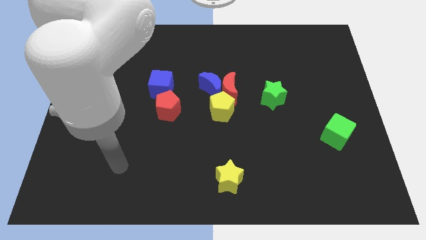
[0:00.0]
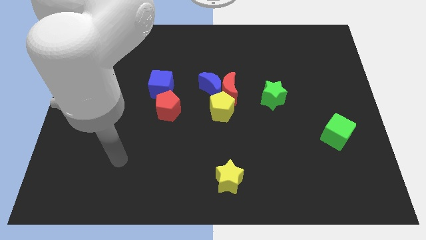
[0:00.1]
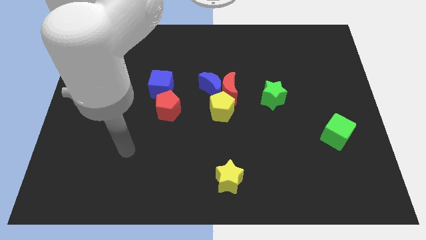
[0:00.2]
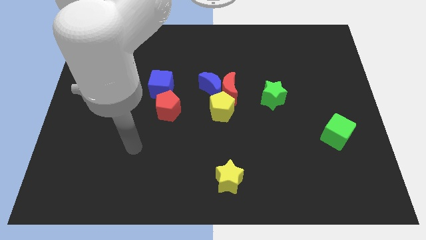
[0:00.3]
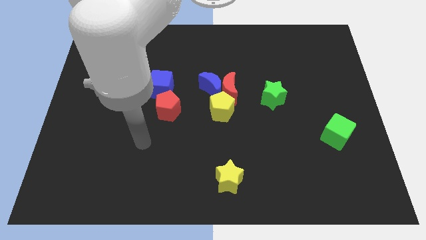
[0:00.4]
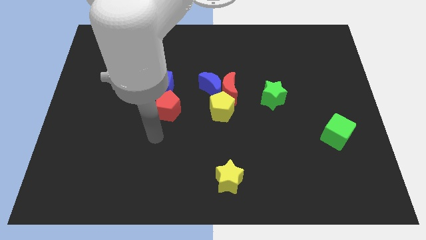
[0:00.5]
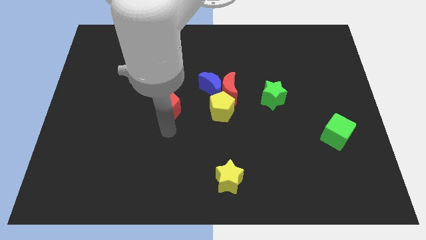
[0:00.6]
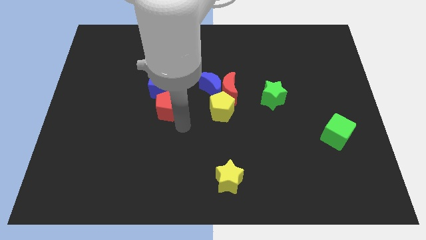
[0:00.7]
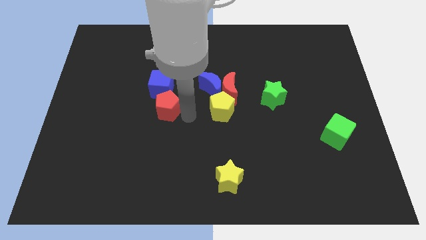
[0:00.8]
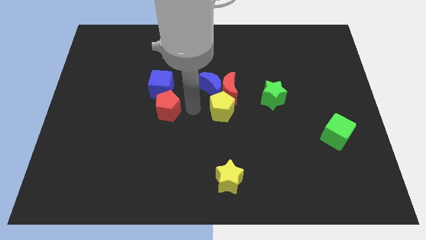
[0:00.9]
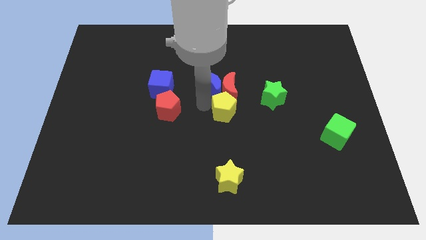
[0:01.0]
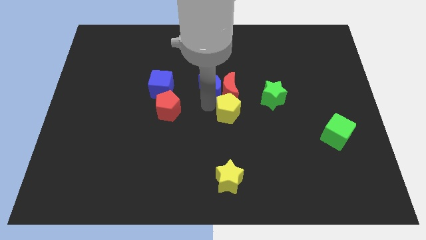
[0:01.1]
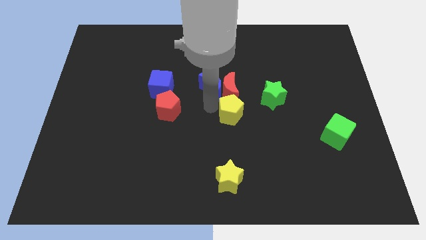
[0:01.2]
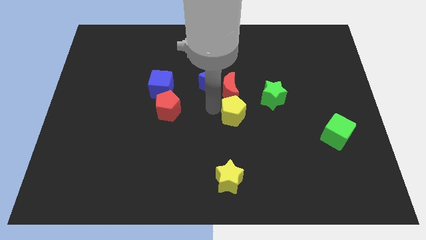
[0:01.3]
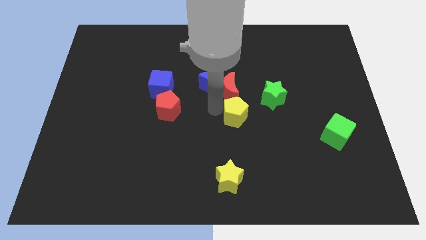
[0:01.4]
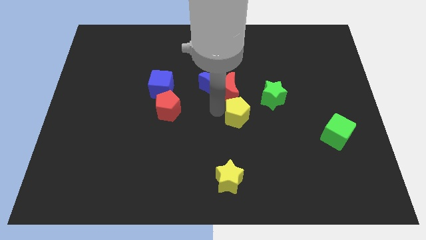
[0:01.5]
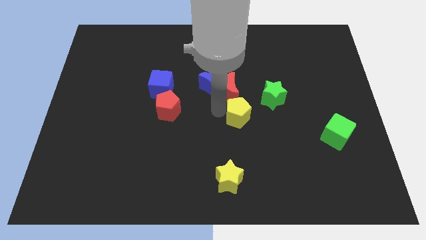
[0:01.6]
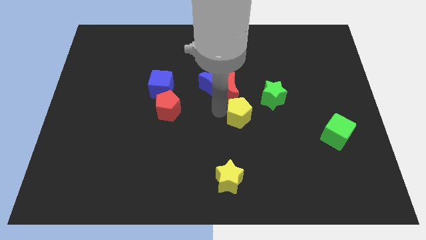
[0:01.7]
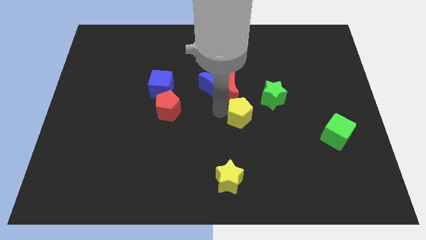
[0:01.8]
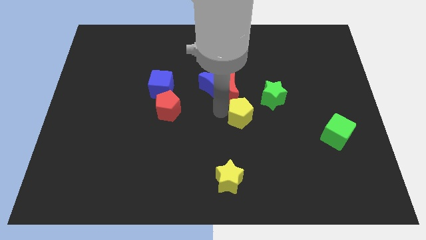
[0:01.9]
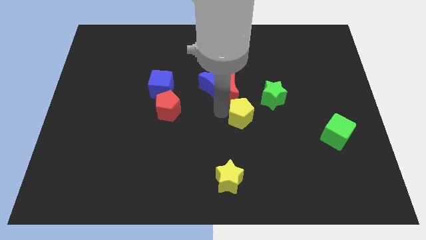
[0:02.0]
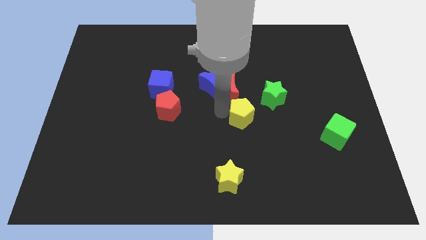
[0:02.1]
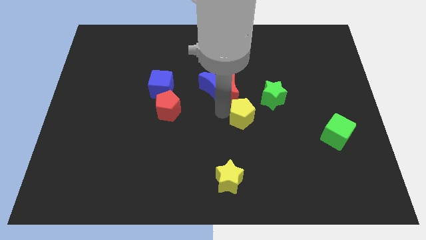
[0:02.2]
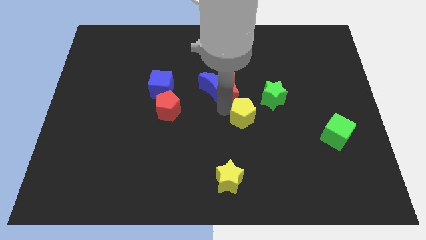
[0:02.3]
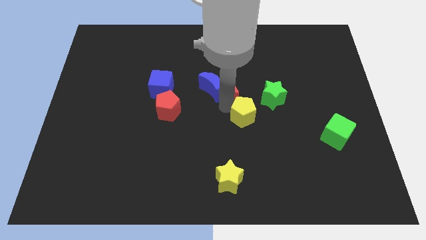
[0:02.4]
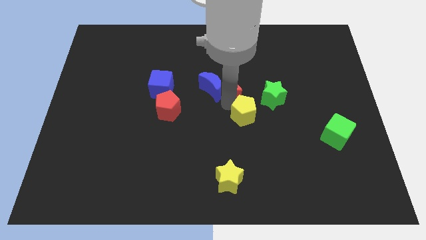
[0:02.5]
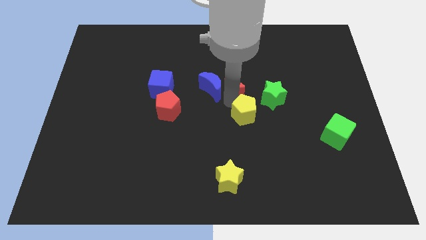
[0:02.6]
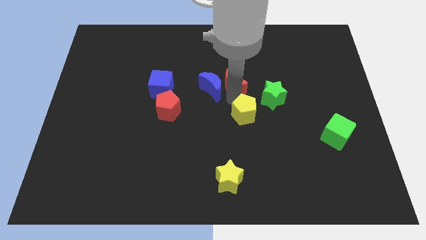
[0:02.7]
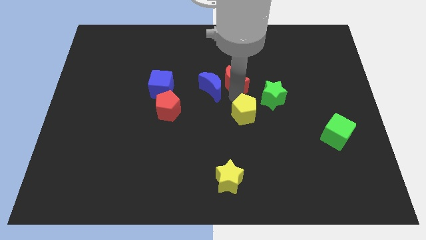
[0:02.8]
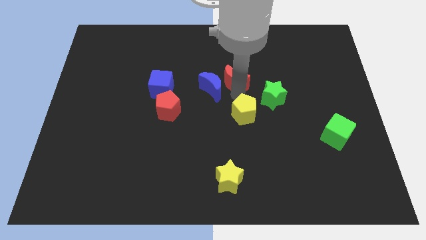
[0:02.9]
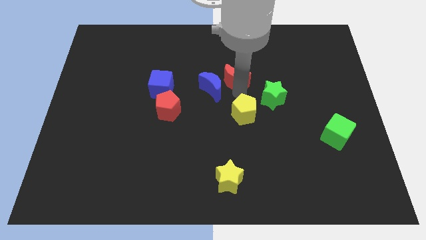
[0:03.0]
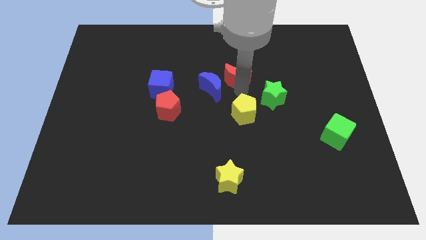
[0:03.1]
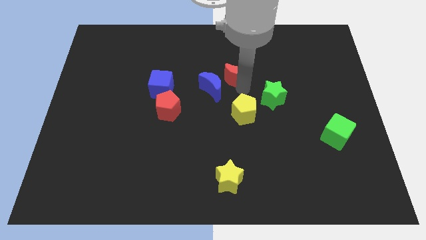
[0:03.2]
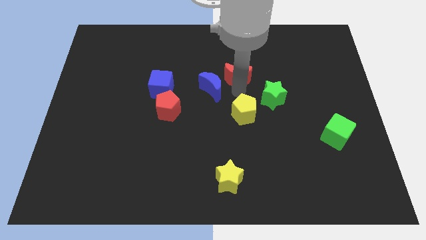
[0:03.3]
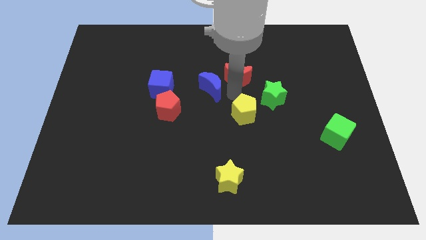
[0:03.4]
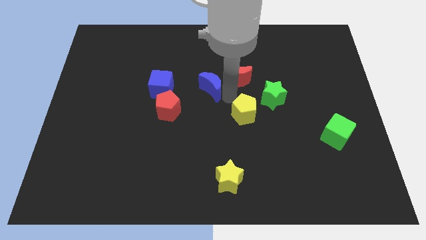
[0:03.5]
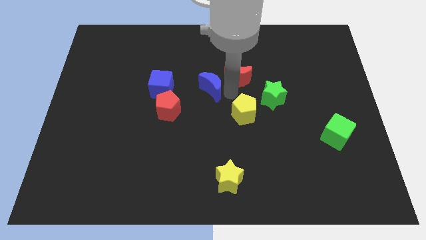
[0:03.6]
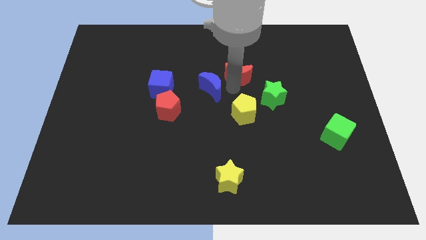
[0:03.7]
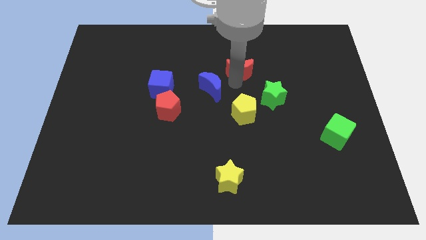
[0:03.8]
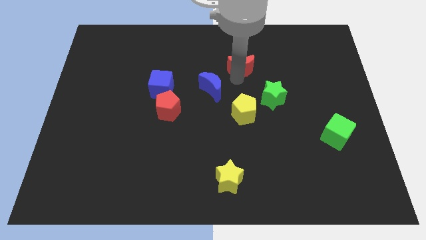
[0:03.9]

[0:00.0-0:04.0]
pull the red moon apart from the blue moon and yellow pentagon

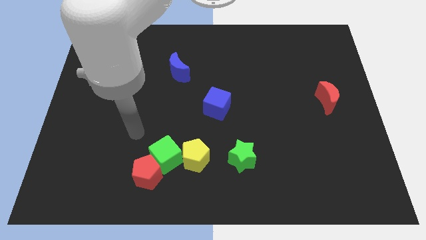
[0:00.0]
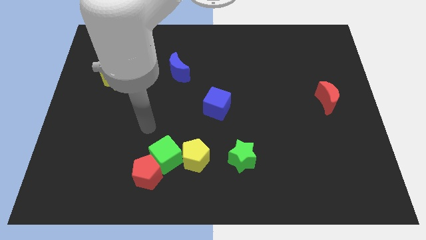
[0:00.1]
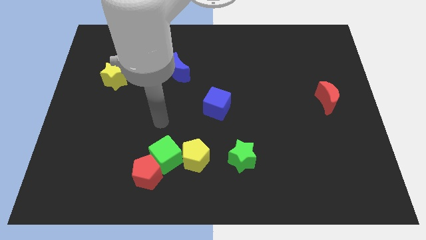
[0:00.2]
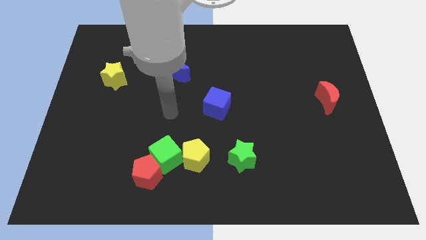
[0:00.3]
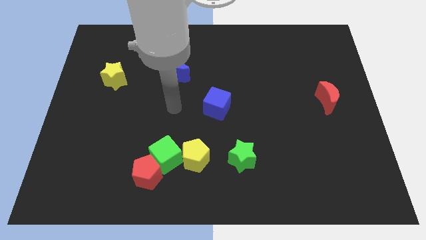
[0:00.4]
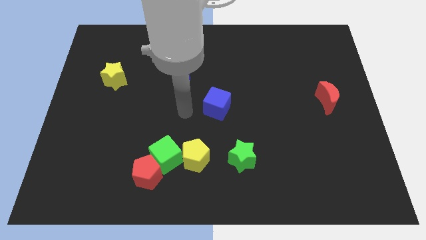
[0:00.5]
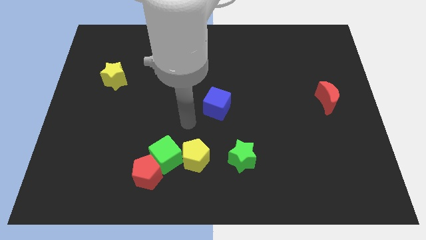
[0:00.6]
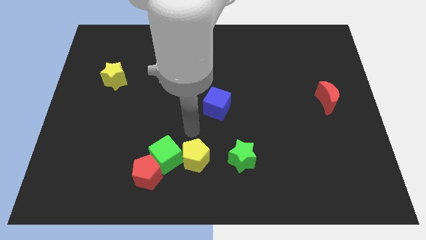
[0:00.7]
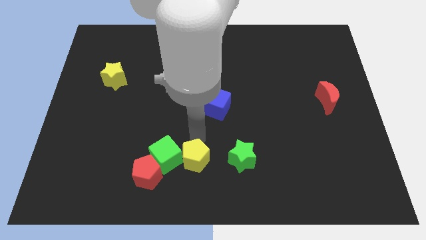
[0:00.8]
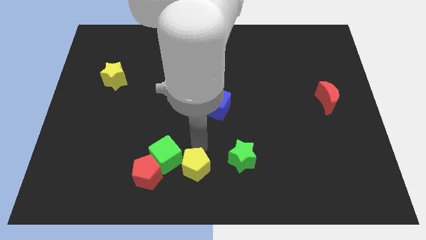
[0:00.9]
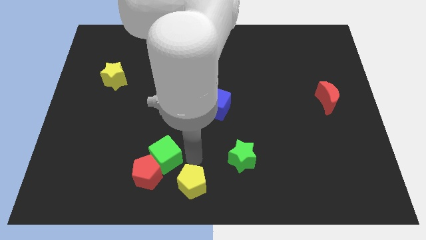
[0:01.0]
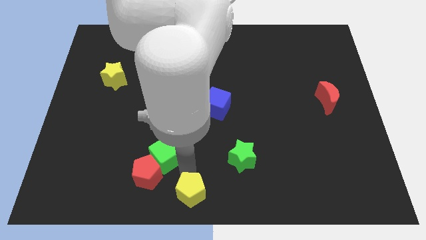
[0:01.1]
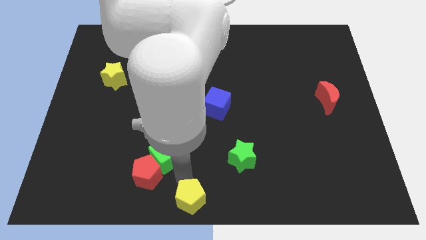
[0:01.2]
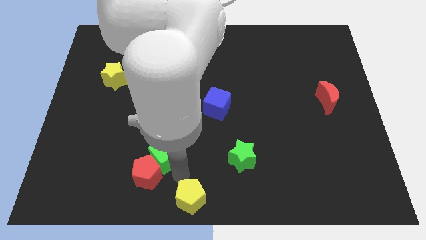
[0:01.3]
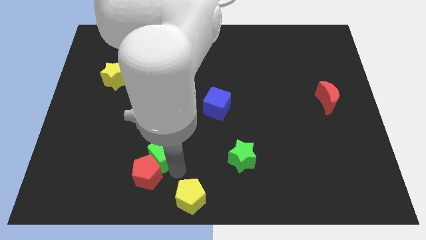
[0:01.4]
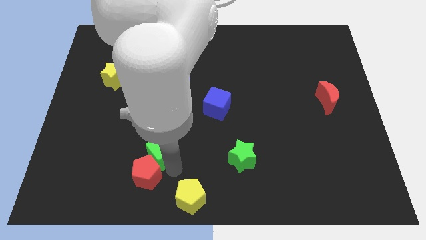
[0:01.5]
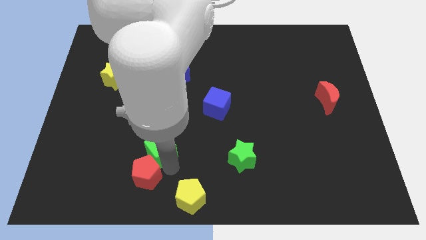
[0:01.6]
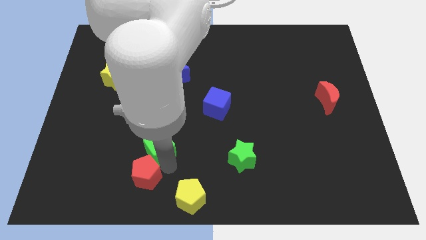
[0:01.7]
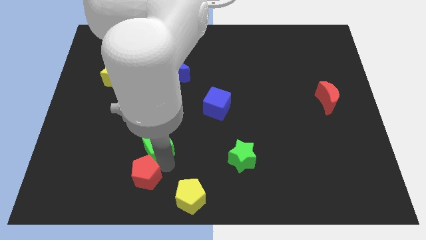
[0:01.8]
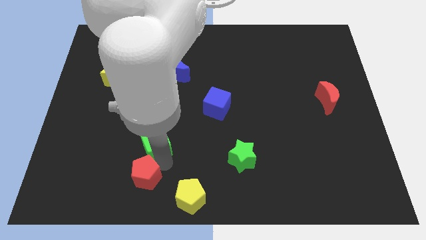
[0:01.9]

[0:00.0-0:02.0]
separate the green cube from the red pentagon and yellow pentagon

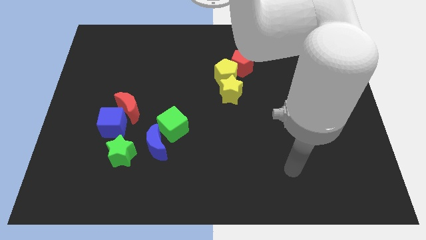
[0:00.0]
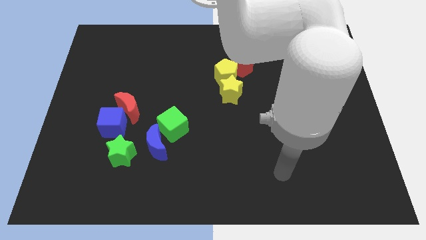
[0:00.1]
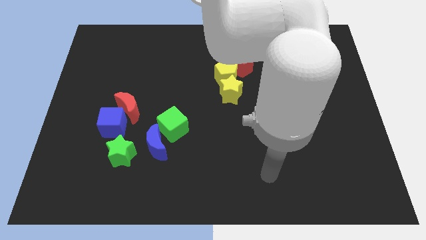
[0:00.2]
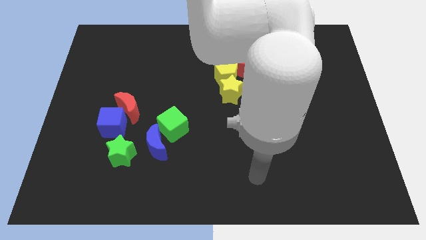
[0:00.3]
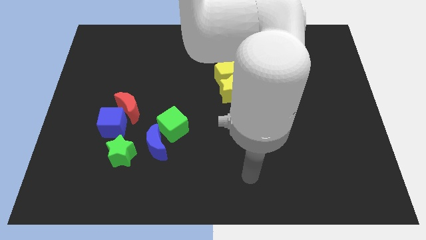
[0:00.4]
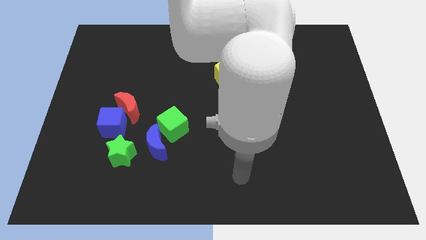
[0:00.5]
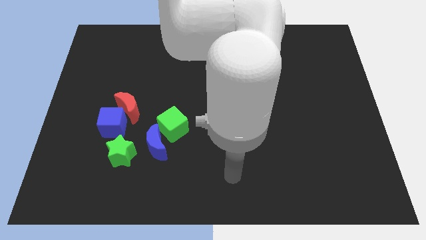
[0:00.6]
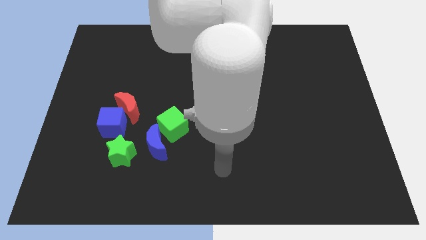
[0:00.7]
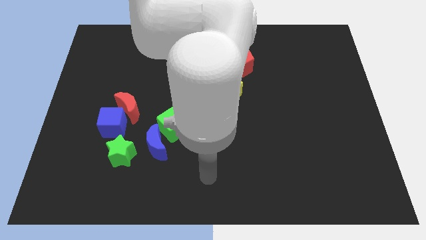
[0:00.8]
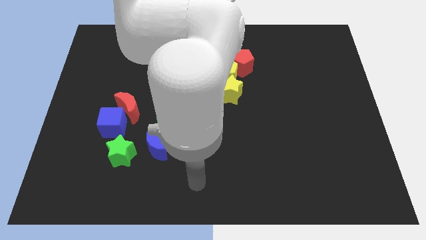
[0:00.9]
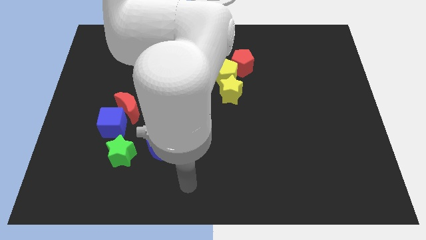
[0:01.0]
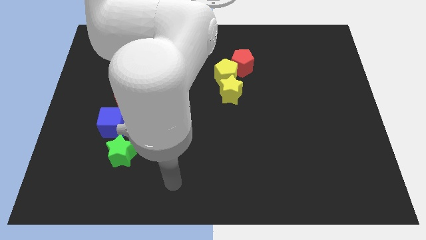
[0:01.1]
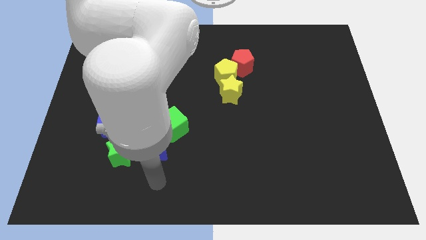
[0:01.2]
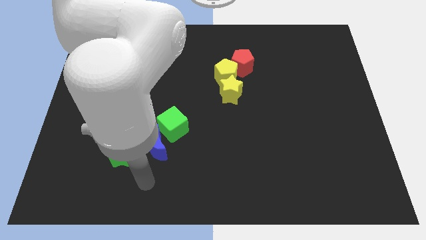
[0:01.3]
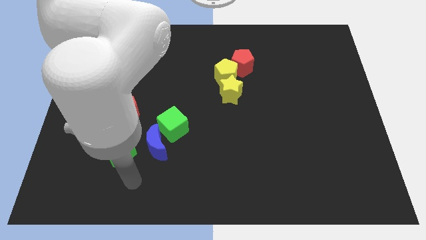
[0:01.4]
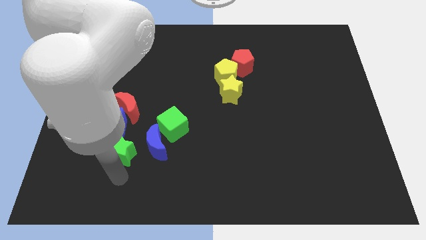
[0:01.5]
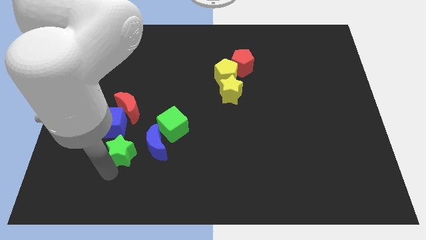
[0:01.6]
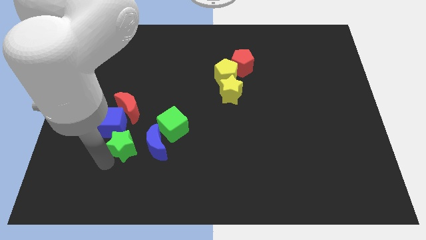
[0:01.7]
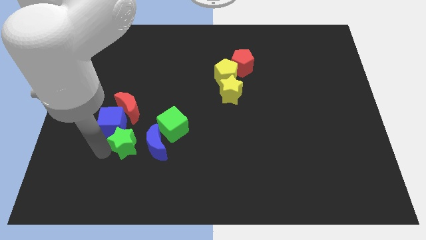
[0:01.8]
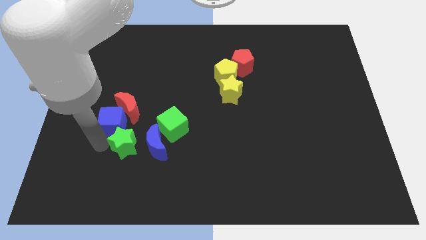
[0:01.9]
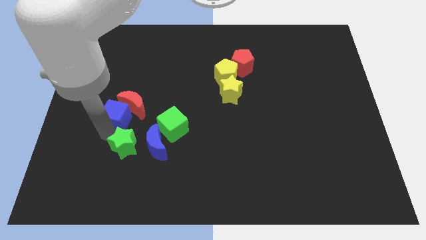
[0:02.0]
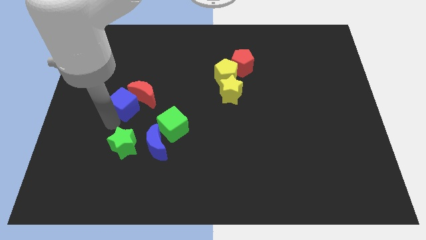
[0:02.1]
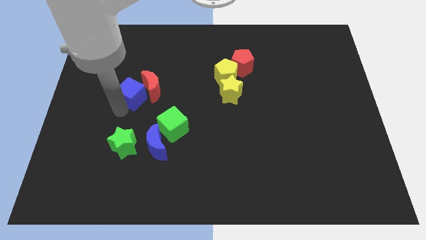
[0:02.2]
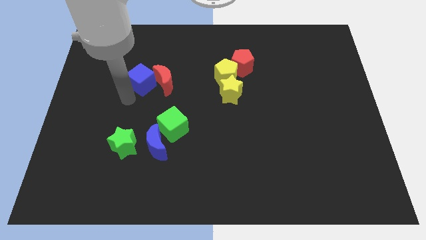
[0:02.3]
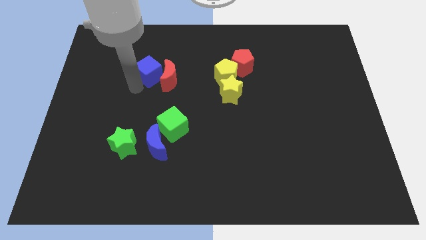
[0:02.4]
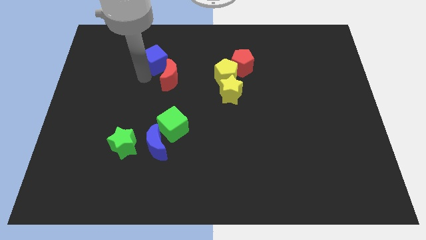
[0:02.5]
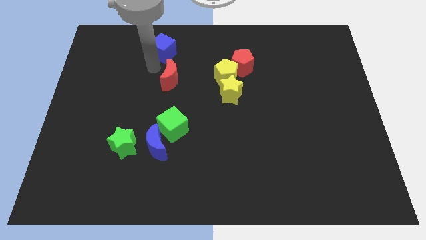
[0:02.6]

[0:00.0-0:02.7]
pull the red moon apart from the blue cube

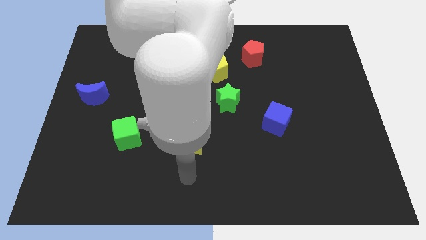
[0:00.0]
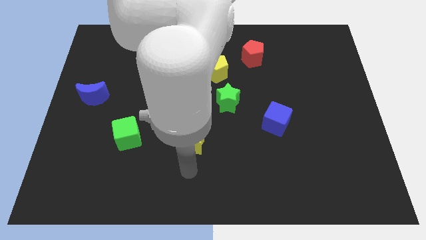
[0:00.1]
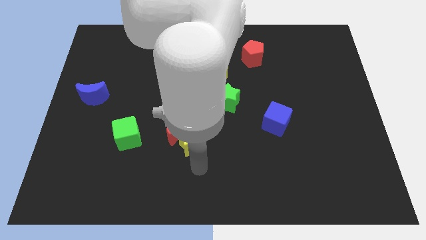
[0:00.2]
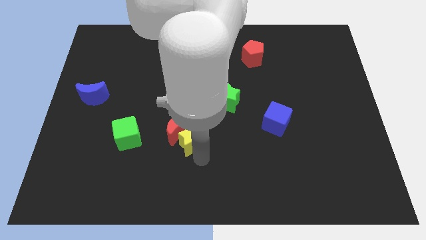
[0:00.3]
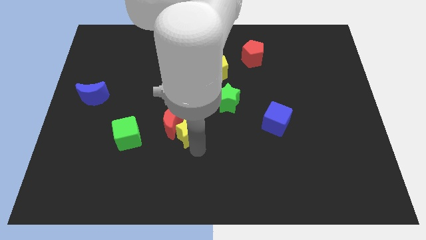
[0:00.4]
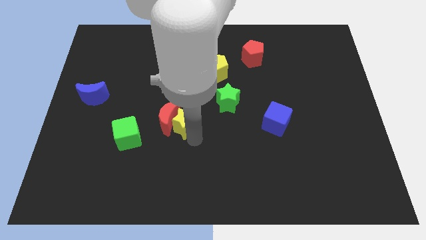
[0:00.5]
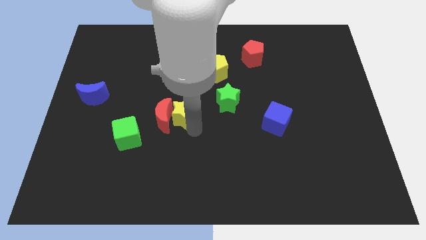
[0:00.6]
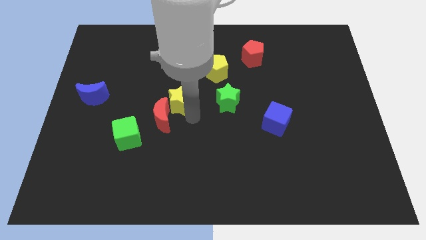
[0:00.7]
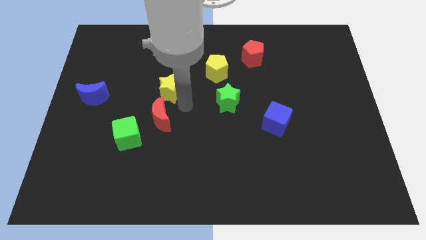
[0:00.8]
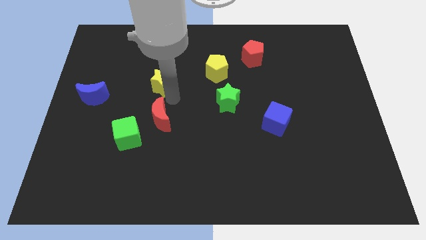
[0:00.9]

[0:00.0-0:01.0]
separate the red moon from the yellow star
